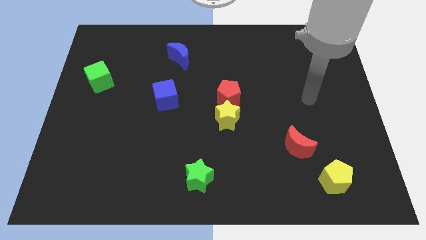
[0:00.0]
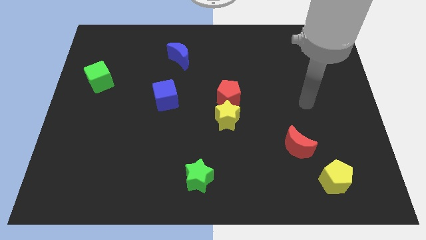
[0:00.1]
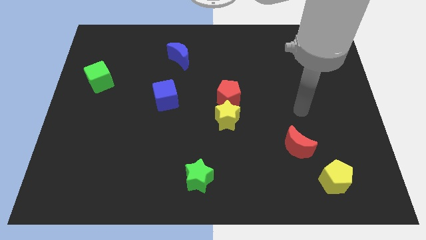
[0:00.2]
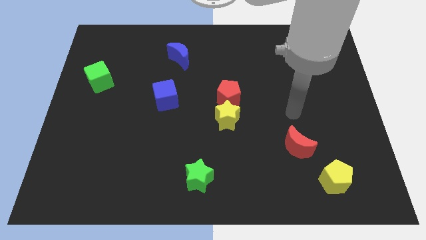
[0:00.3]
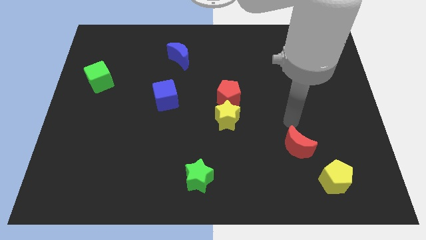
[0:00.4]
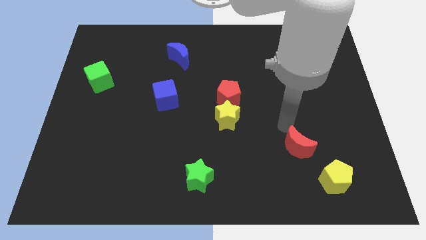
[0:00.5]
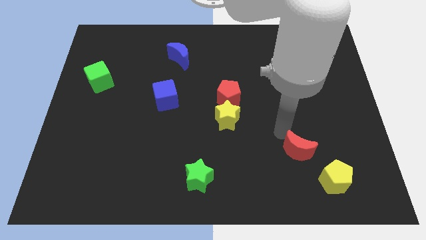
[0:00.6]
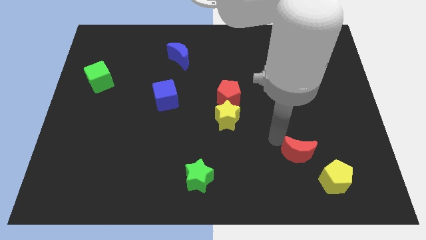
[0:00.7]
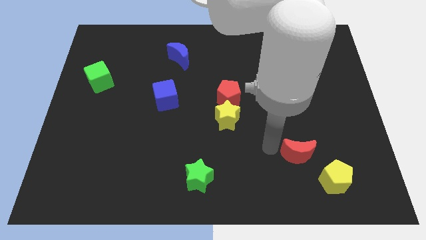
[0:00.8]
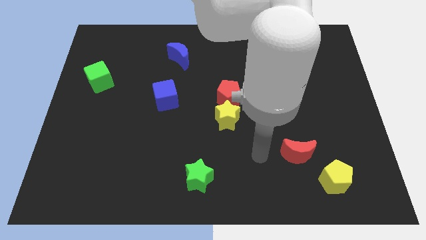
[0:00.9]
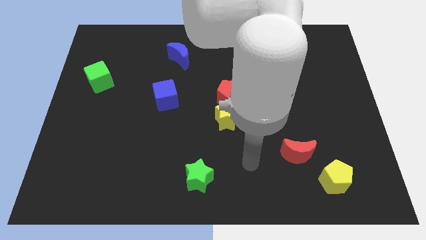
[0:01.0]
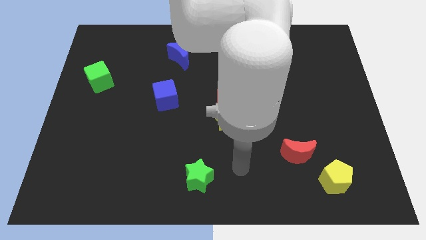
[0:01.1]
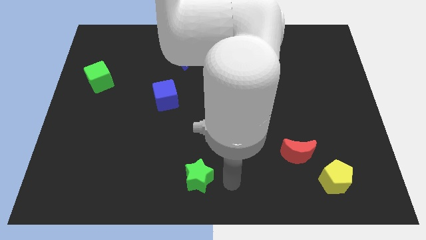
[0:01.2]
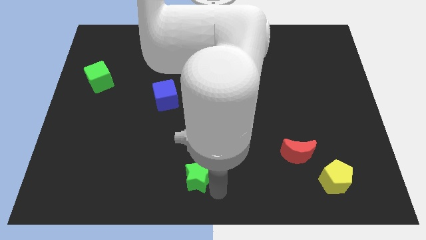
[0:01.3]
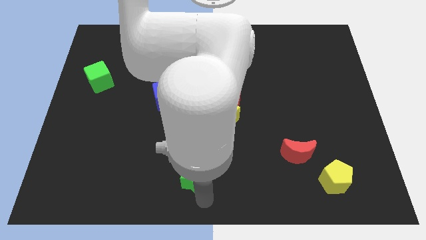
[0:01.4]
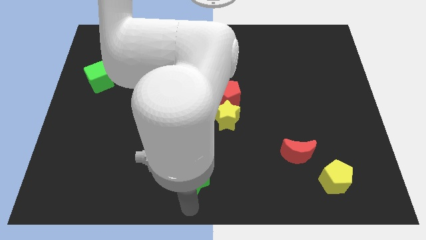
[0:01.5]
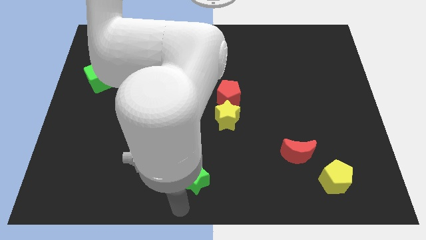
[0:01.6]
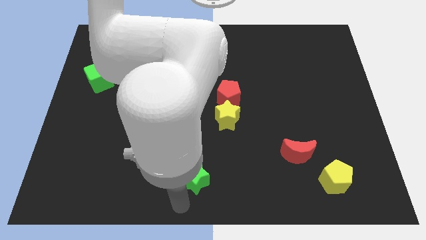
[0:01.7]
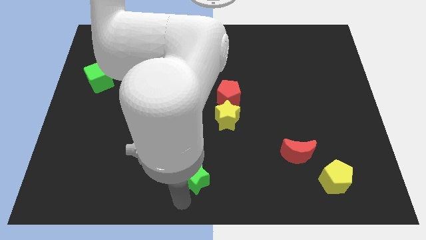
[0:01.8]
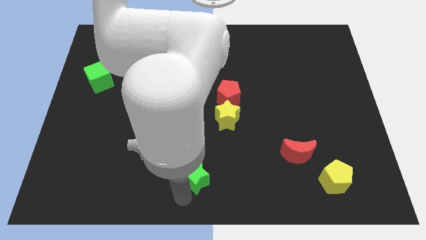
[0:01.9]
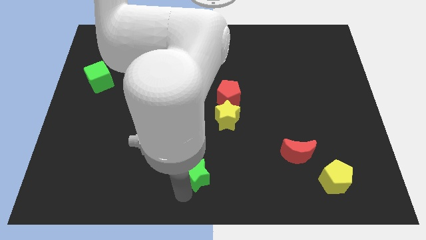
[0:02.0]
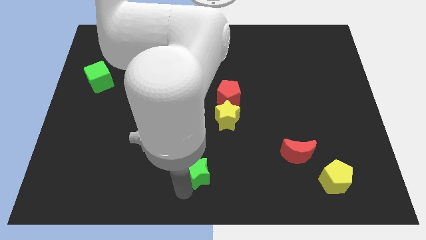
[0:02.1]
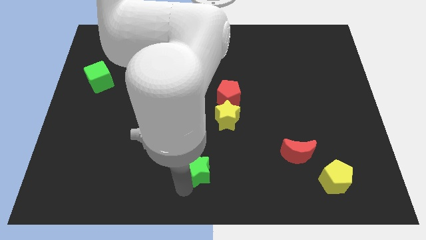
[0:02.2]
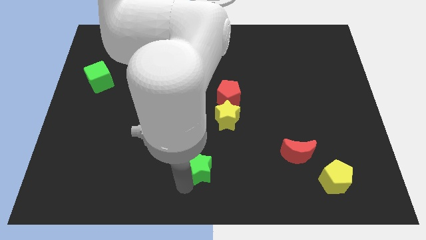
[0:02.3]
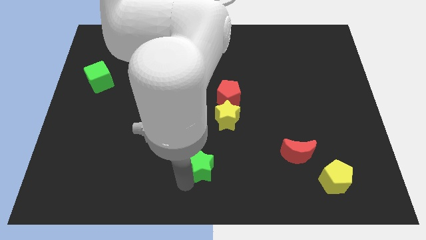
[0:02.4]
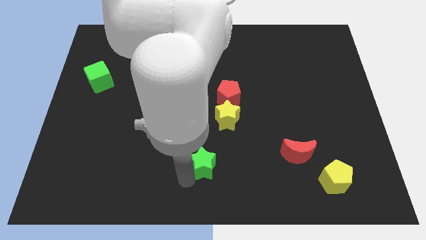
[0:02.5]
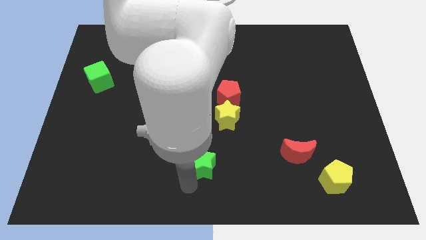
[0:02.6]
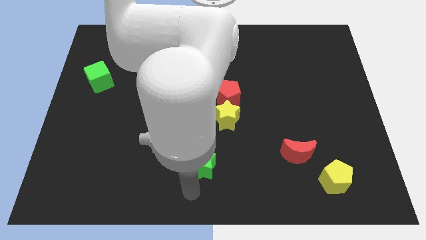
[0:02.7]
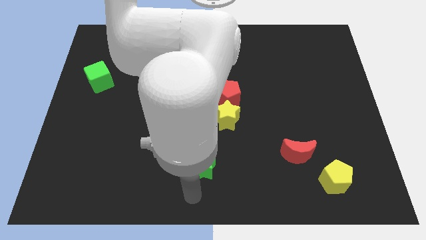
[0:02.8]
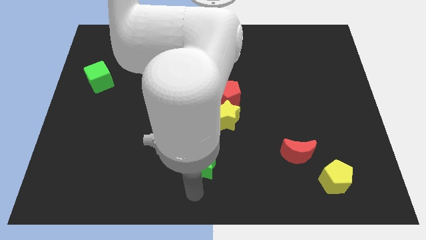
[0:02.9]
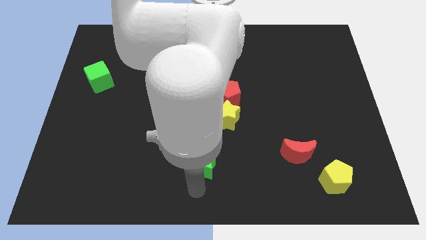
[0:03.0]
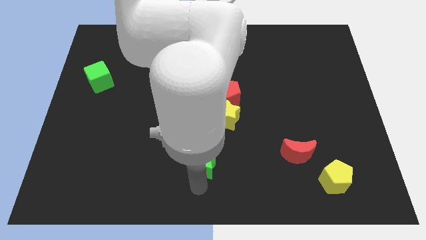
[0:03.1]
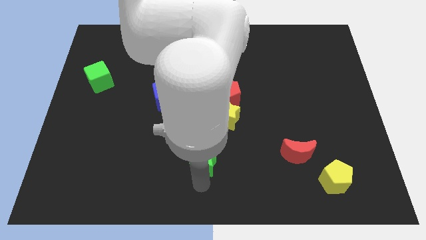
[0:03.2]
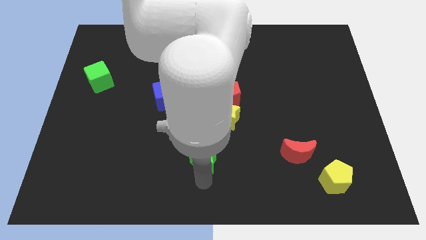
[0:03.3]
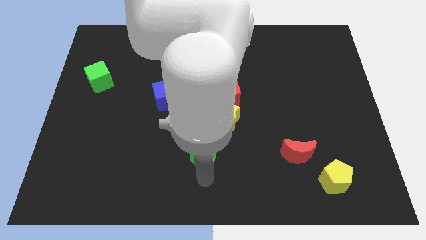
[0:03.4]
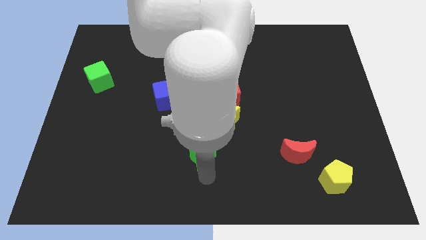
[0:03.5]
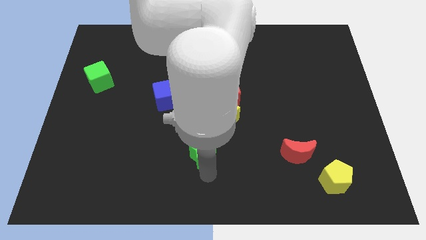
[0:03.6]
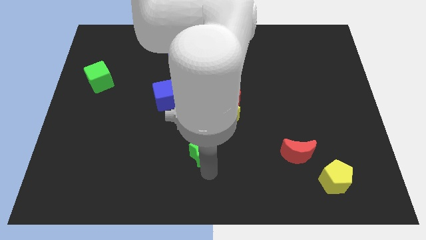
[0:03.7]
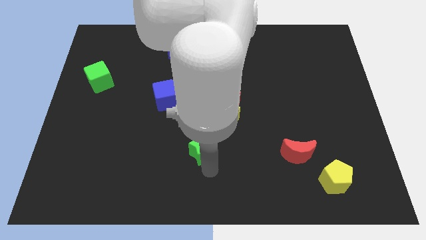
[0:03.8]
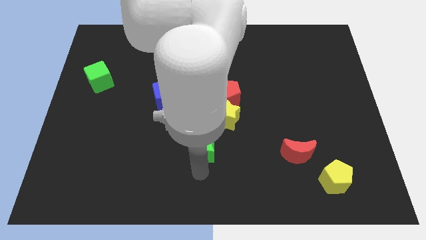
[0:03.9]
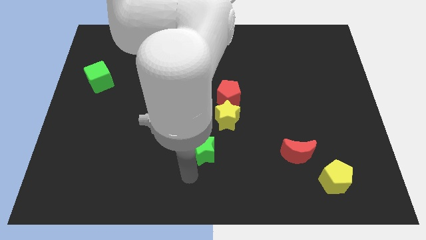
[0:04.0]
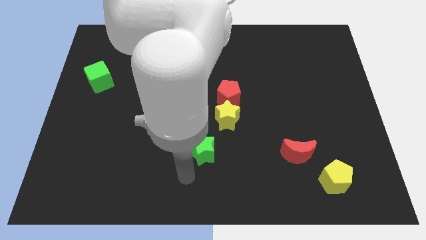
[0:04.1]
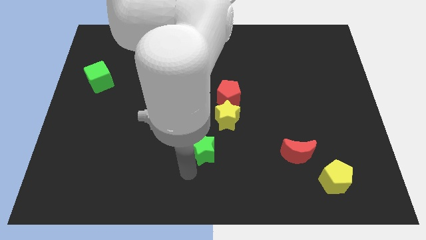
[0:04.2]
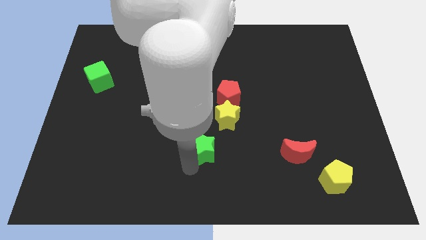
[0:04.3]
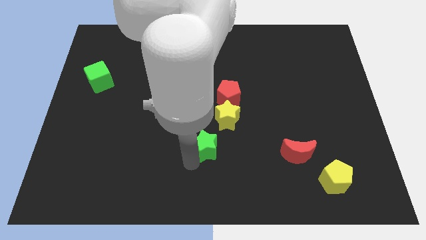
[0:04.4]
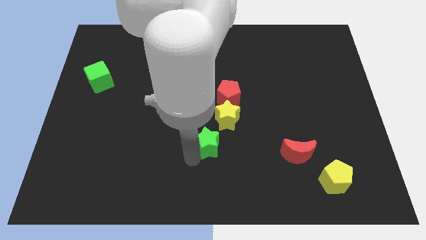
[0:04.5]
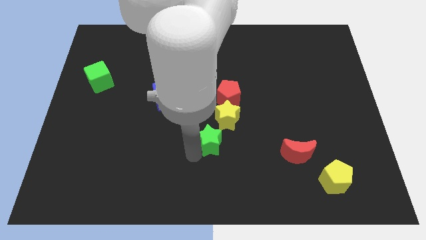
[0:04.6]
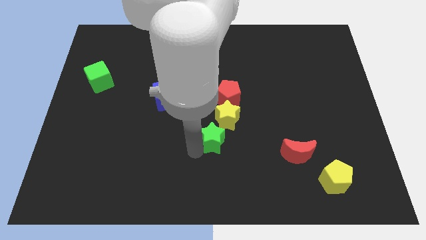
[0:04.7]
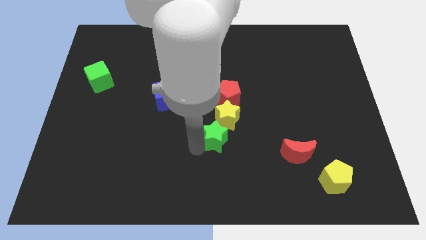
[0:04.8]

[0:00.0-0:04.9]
put the green star to the yellow star

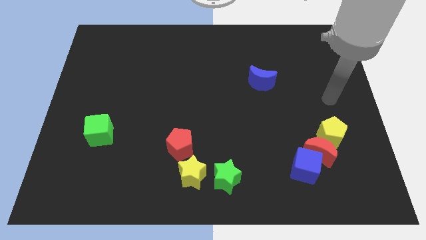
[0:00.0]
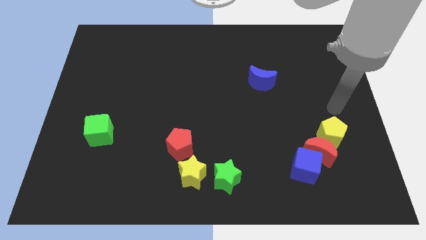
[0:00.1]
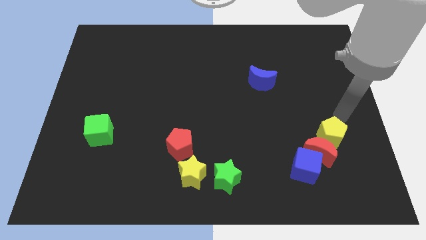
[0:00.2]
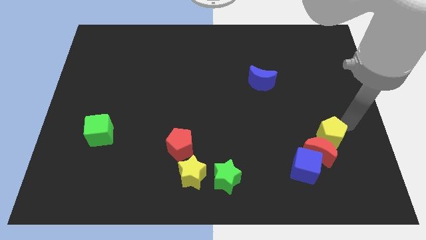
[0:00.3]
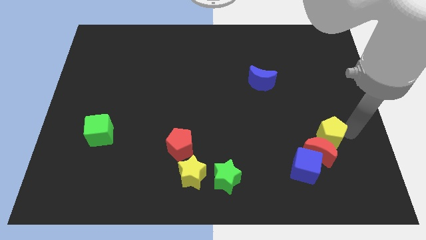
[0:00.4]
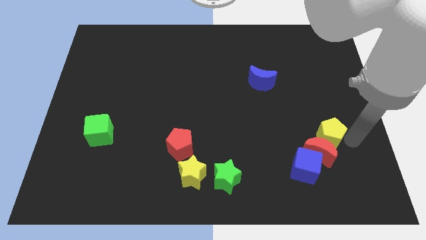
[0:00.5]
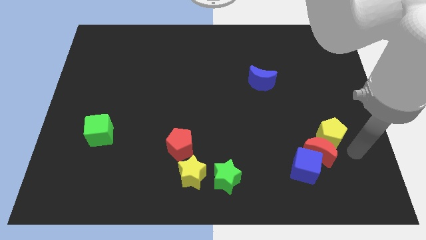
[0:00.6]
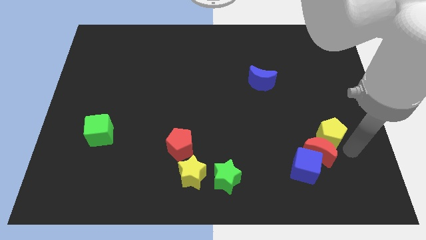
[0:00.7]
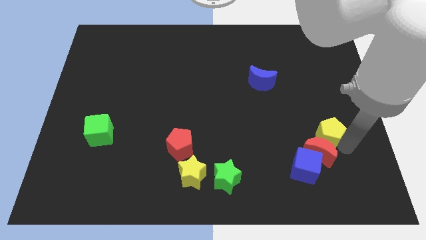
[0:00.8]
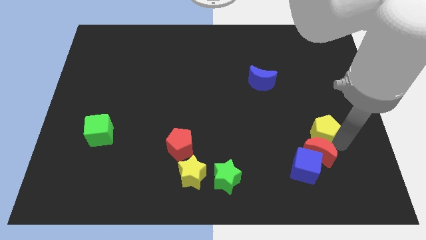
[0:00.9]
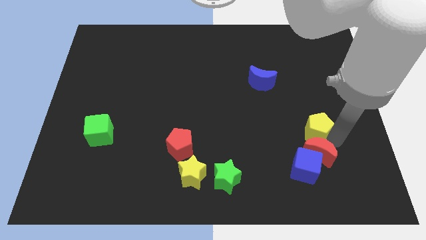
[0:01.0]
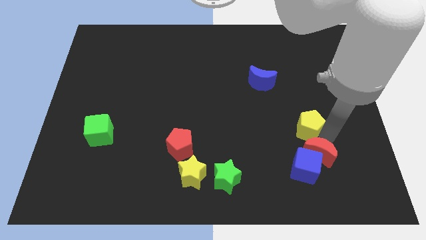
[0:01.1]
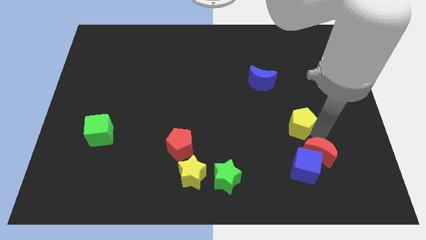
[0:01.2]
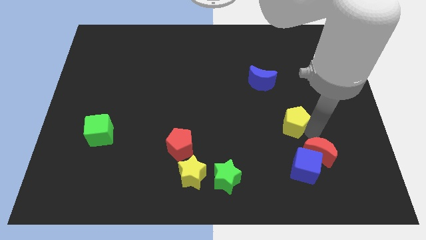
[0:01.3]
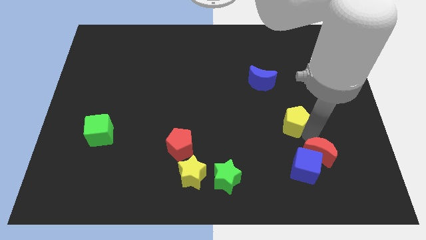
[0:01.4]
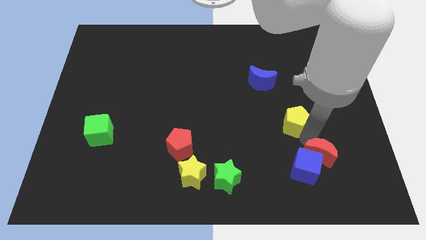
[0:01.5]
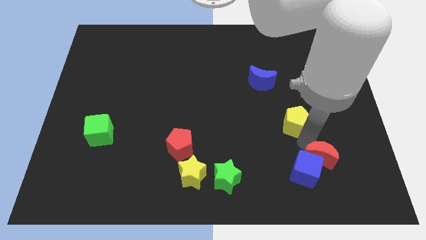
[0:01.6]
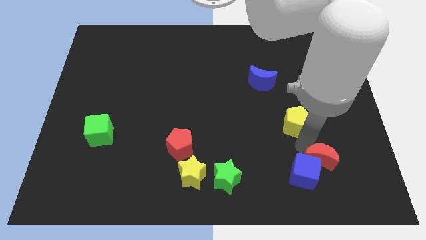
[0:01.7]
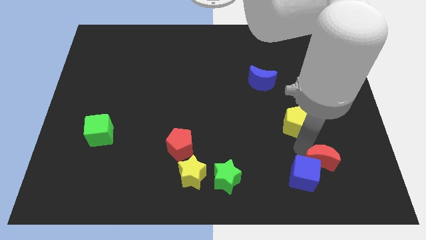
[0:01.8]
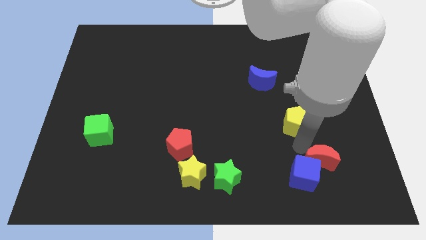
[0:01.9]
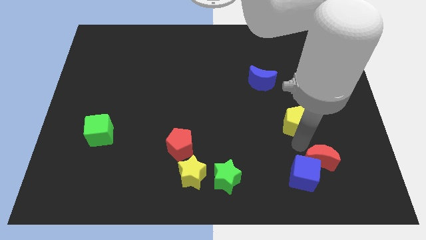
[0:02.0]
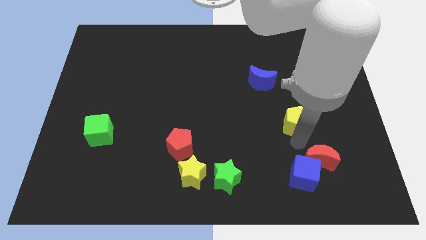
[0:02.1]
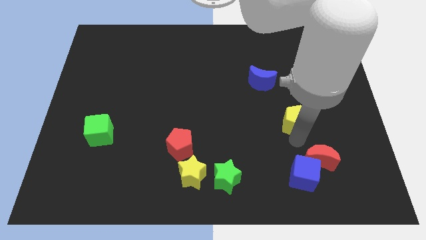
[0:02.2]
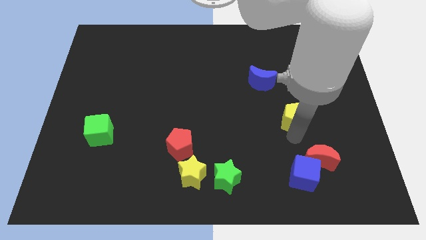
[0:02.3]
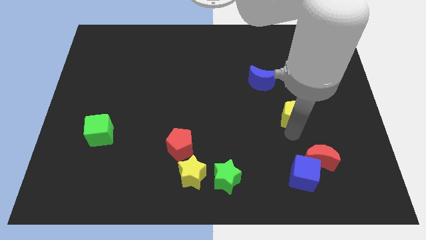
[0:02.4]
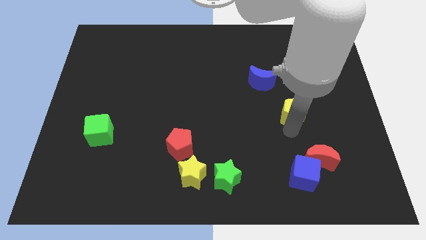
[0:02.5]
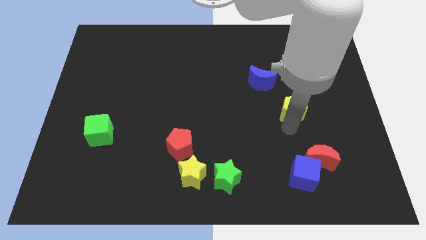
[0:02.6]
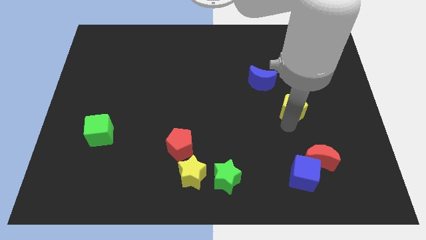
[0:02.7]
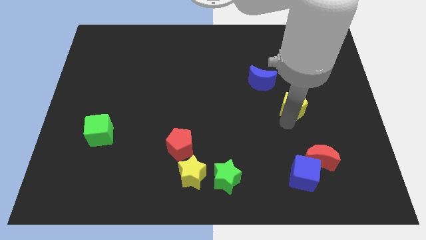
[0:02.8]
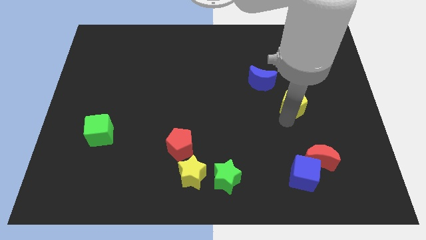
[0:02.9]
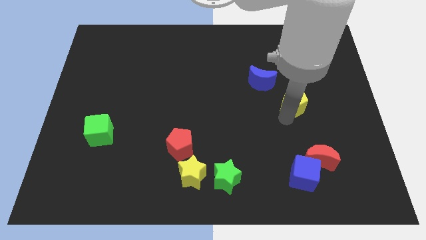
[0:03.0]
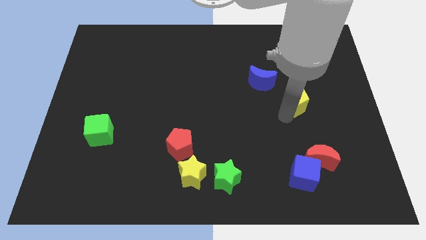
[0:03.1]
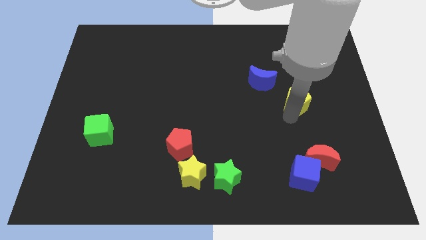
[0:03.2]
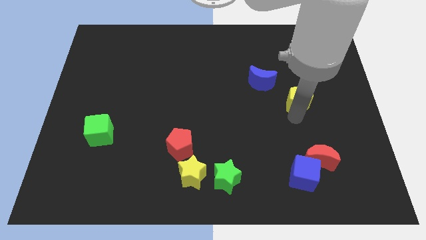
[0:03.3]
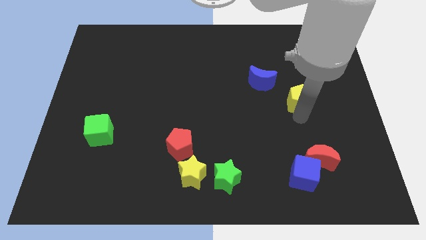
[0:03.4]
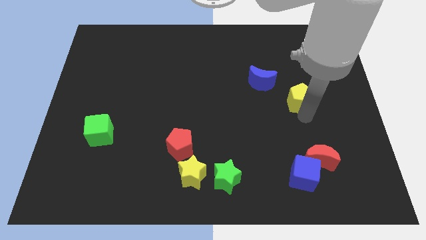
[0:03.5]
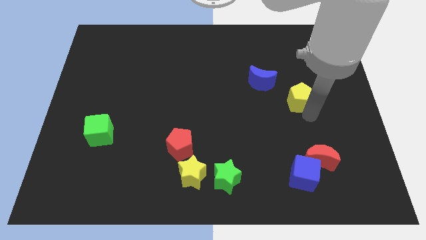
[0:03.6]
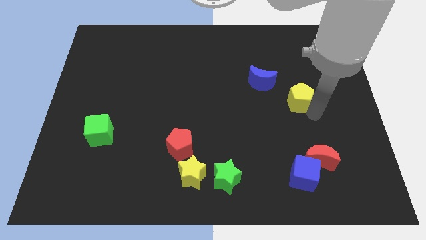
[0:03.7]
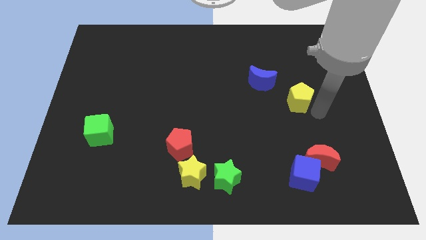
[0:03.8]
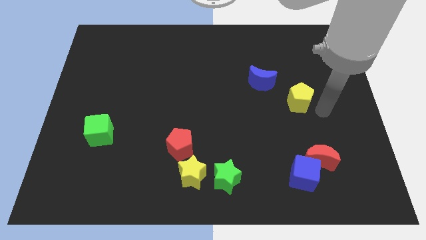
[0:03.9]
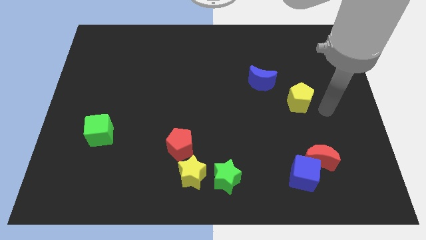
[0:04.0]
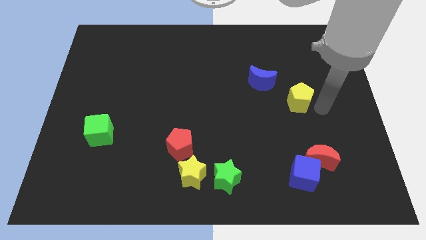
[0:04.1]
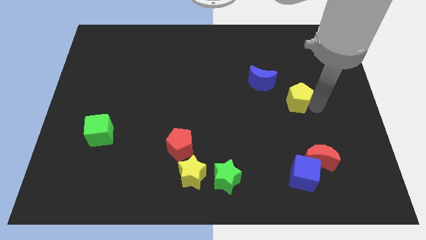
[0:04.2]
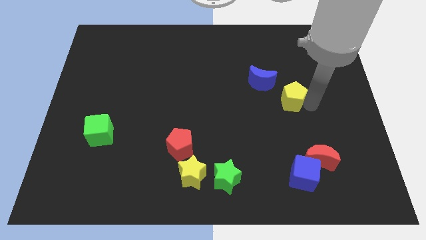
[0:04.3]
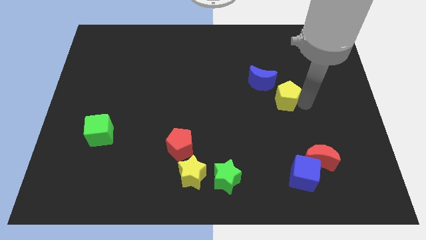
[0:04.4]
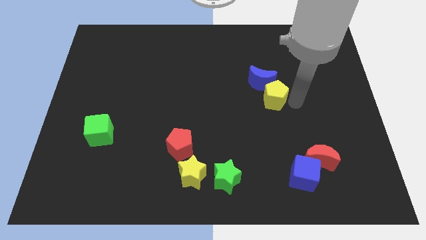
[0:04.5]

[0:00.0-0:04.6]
slide the yellow pentagon next to the blue moon
